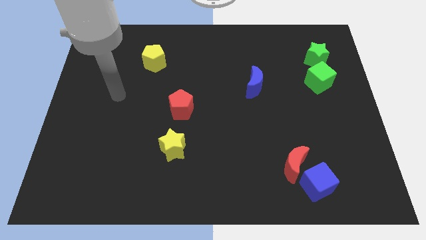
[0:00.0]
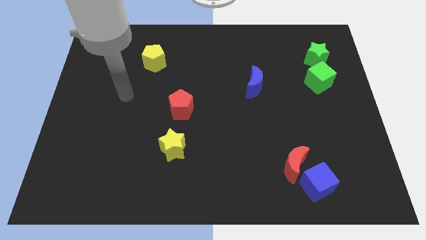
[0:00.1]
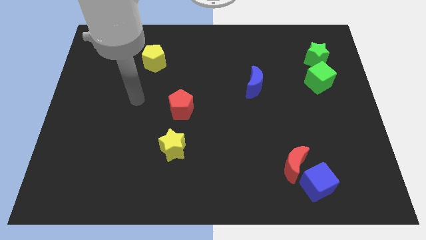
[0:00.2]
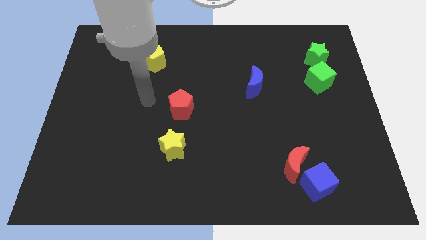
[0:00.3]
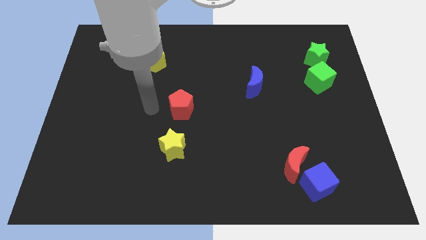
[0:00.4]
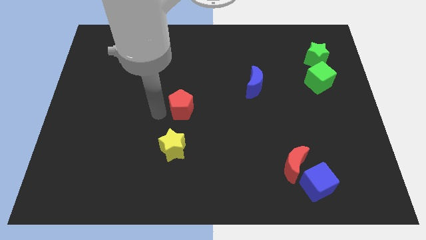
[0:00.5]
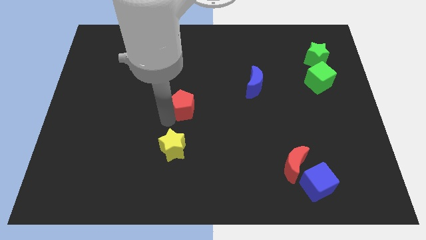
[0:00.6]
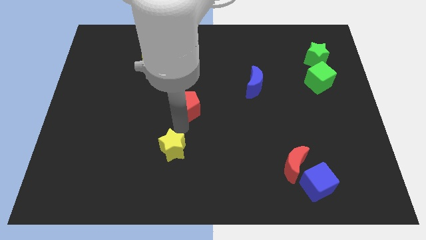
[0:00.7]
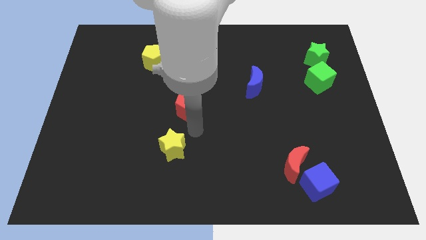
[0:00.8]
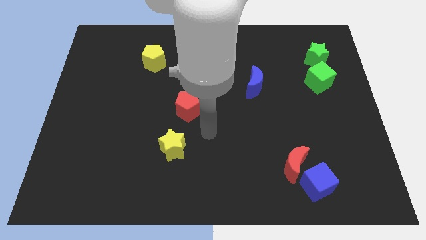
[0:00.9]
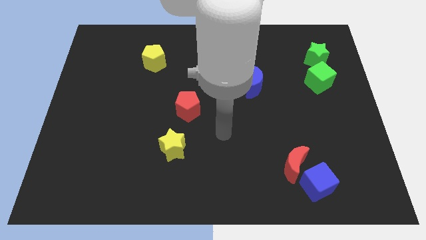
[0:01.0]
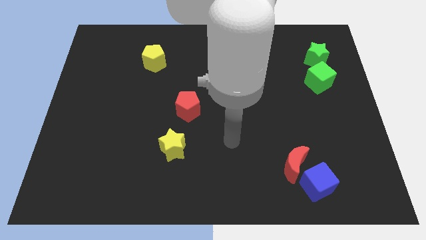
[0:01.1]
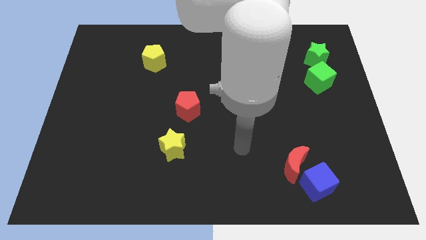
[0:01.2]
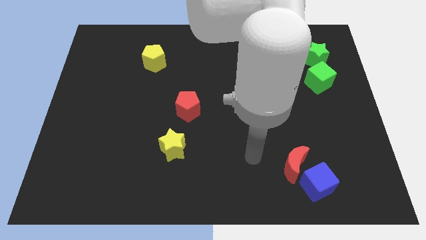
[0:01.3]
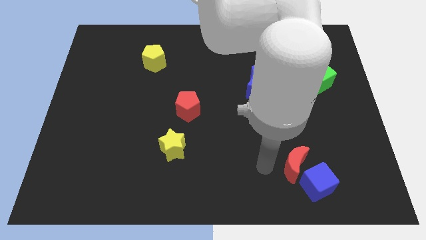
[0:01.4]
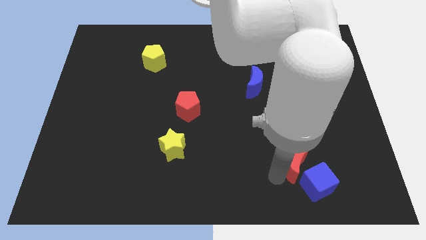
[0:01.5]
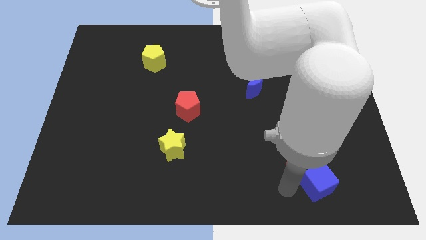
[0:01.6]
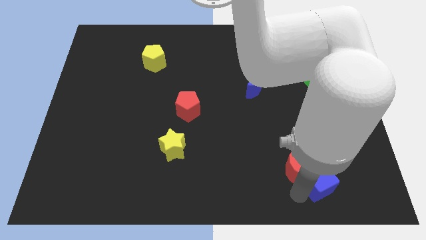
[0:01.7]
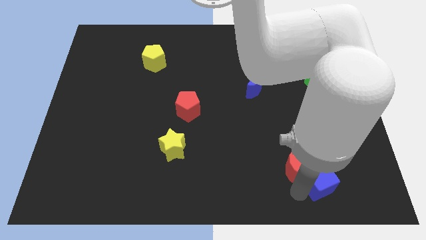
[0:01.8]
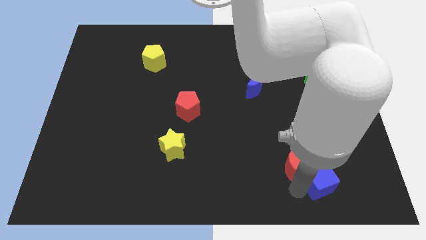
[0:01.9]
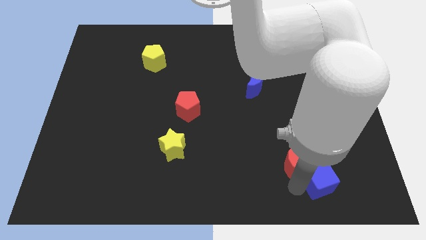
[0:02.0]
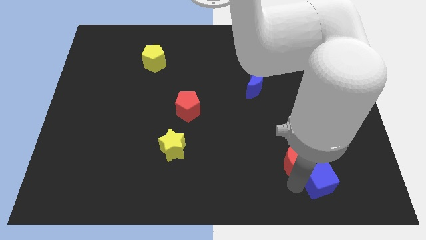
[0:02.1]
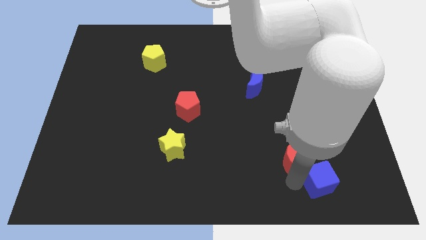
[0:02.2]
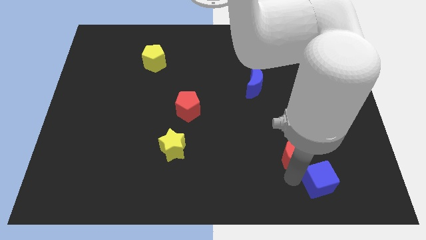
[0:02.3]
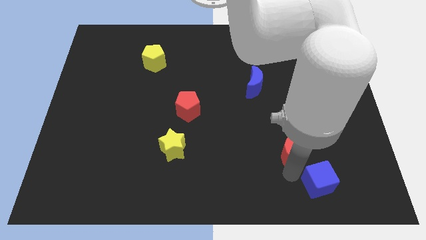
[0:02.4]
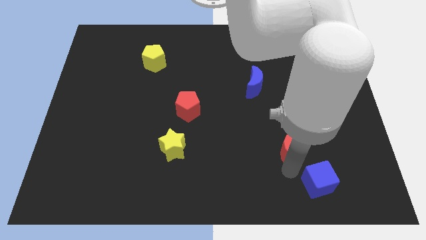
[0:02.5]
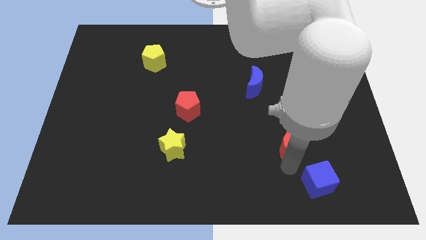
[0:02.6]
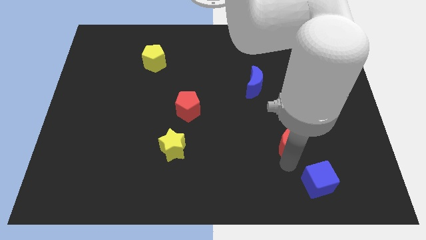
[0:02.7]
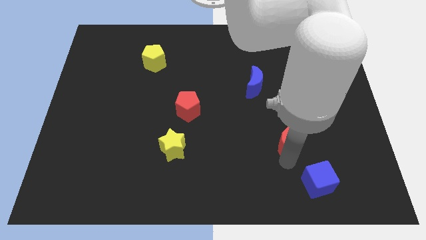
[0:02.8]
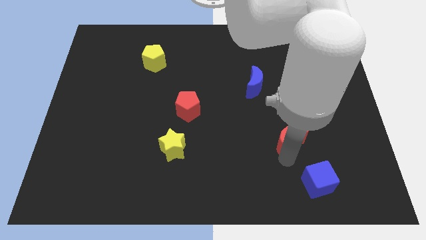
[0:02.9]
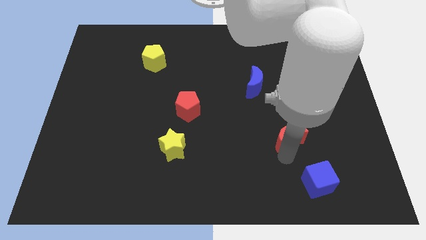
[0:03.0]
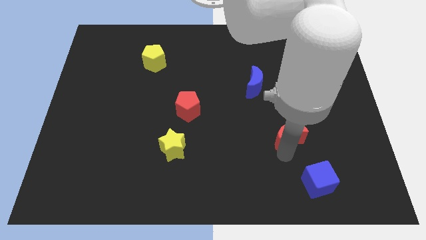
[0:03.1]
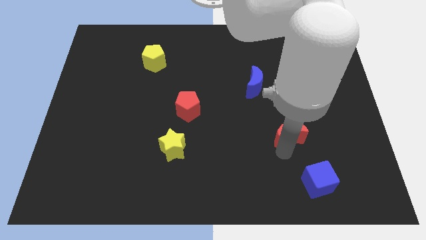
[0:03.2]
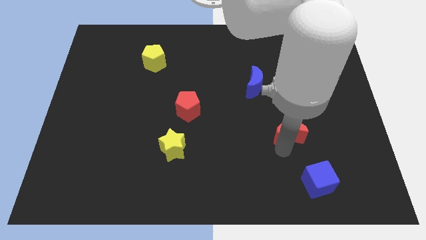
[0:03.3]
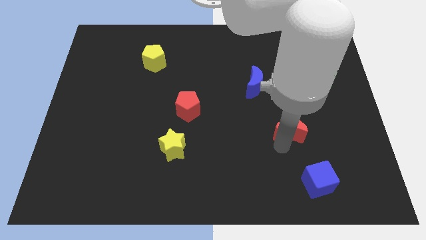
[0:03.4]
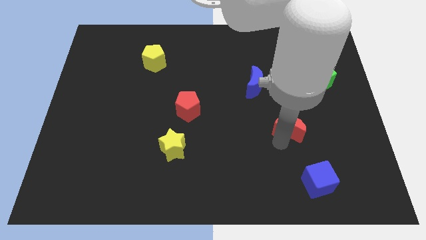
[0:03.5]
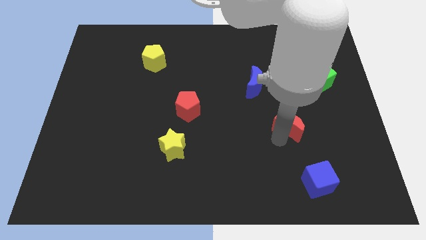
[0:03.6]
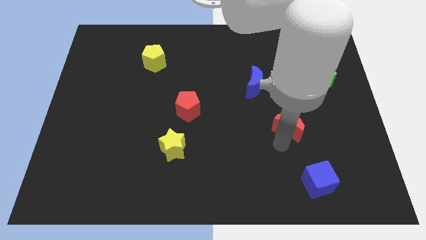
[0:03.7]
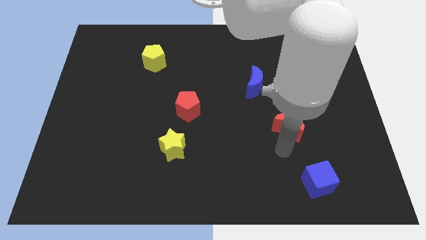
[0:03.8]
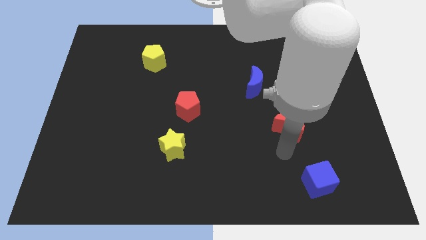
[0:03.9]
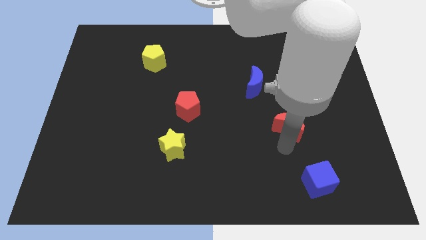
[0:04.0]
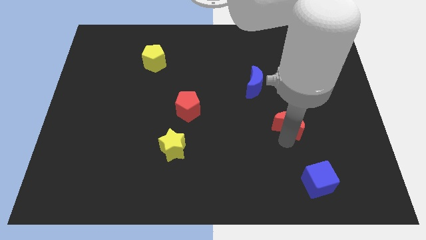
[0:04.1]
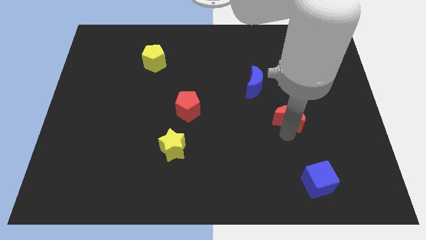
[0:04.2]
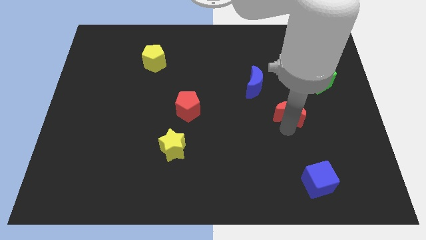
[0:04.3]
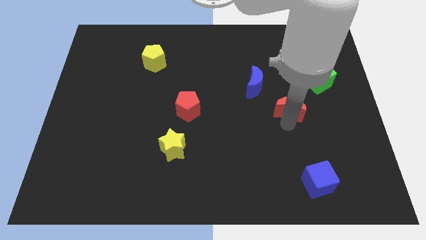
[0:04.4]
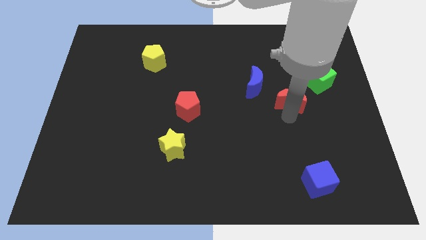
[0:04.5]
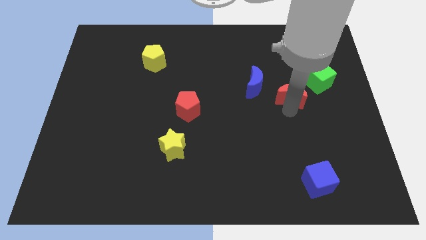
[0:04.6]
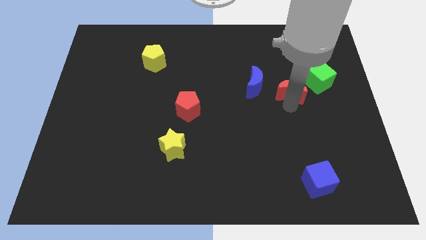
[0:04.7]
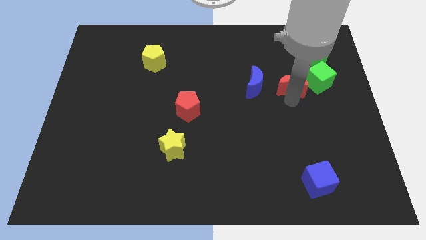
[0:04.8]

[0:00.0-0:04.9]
push the red moon up

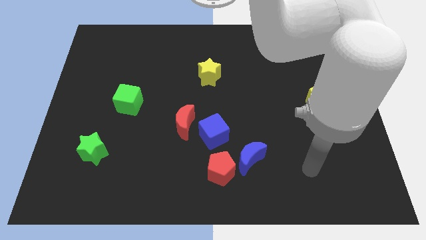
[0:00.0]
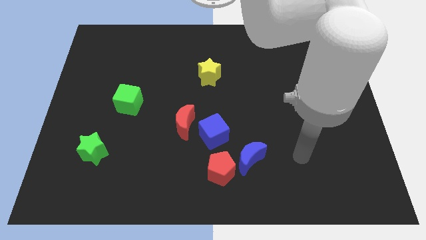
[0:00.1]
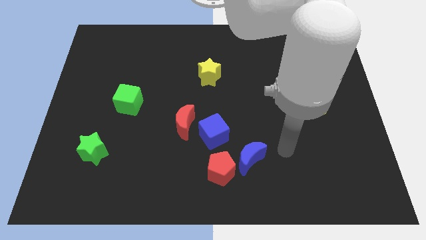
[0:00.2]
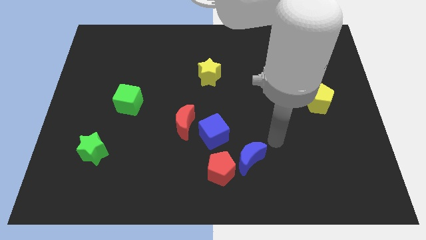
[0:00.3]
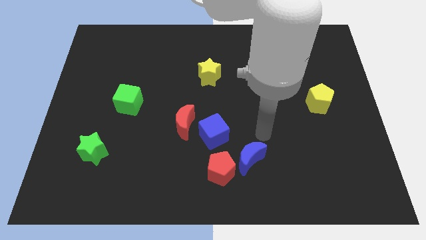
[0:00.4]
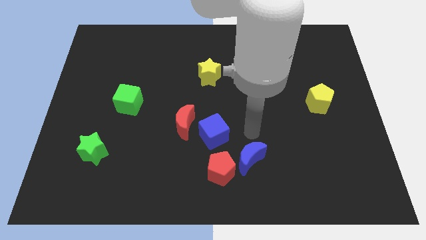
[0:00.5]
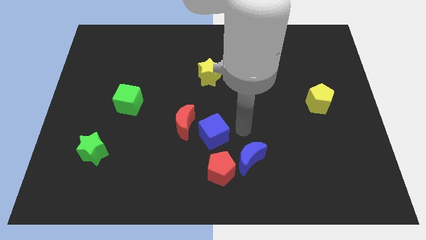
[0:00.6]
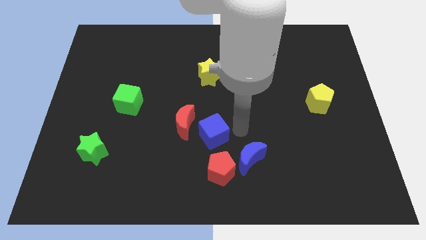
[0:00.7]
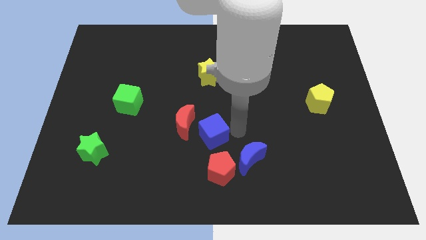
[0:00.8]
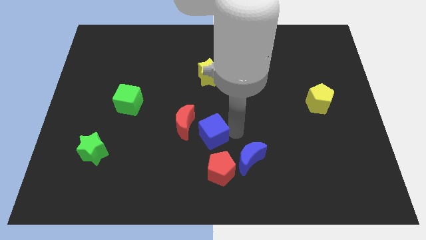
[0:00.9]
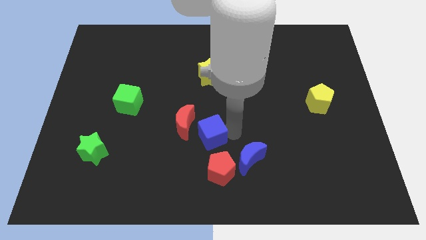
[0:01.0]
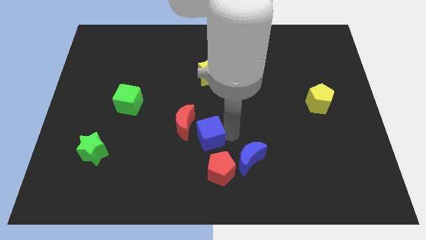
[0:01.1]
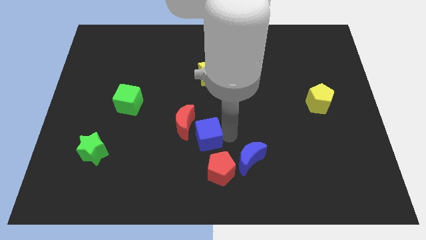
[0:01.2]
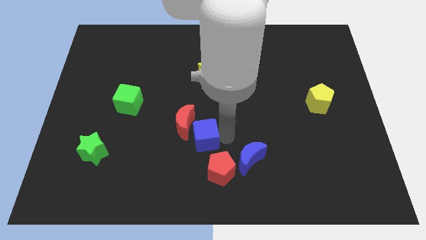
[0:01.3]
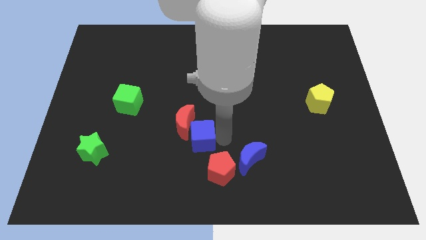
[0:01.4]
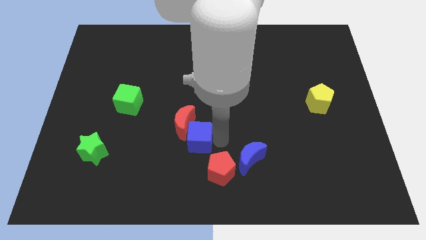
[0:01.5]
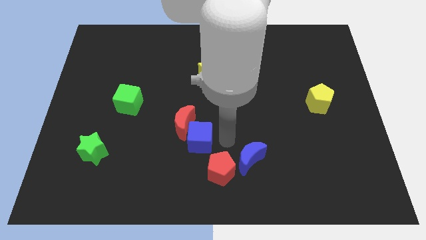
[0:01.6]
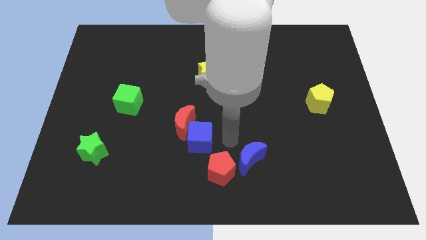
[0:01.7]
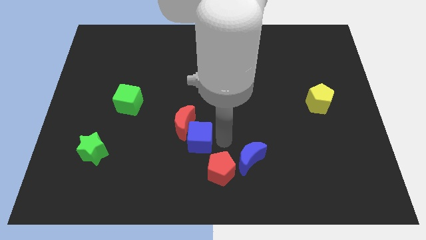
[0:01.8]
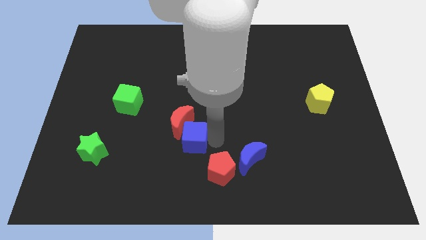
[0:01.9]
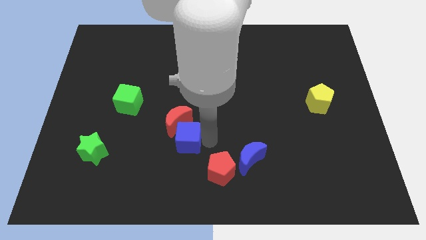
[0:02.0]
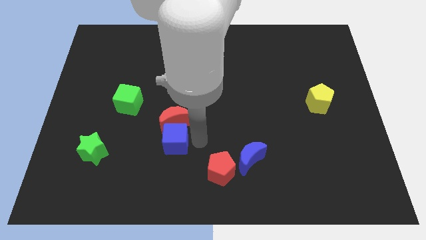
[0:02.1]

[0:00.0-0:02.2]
slightly move the blue cube left

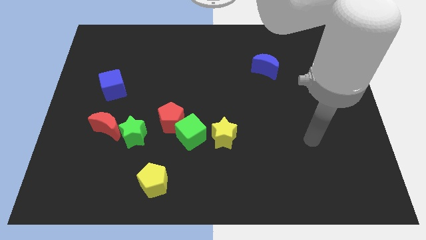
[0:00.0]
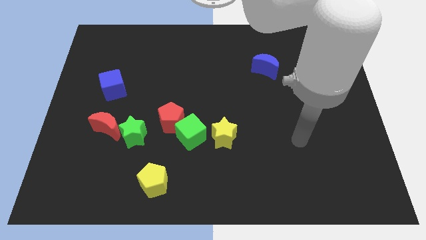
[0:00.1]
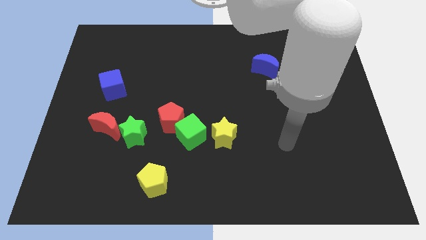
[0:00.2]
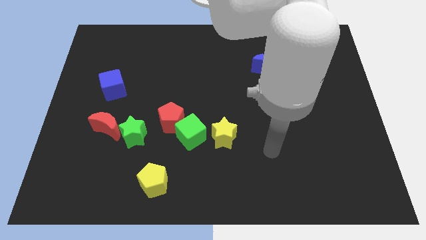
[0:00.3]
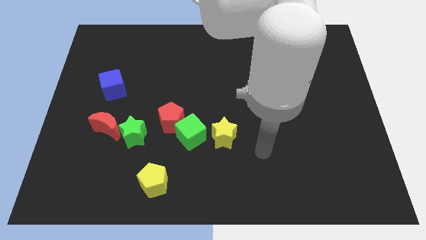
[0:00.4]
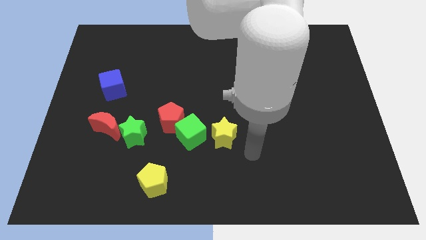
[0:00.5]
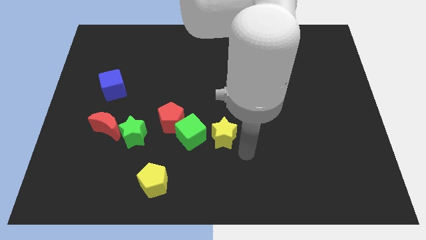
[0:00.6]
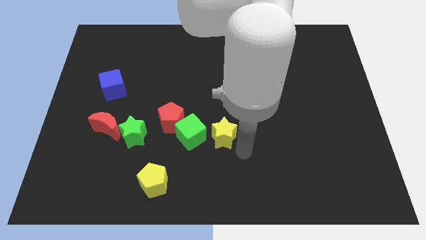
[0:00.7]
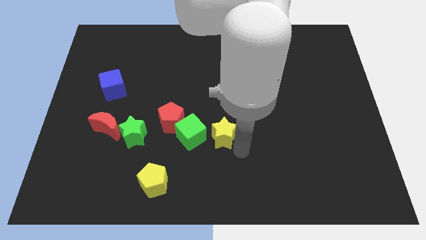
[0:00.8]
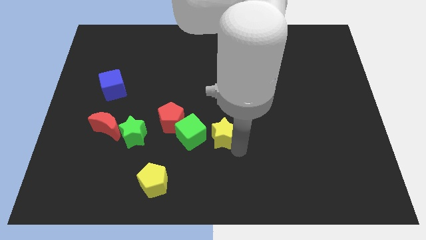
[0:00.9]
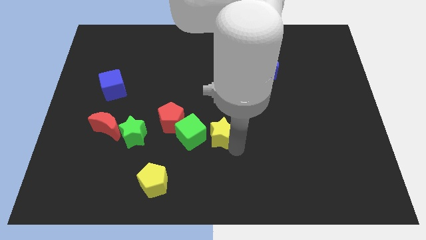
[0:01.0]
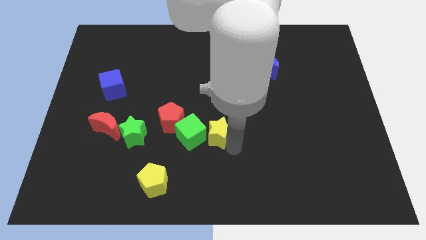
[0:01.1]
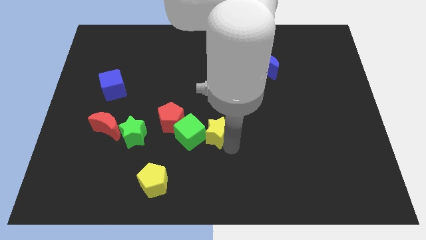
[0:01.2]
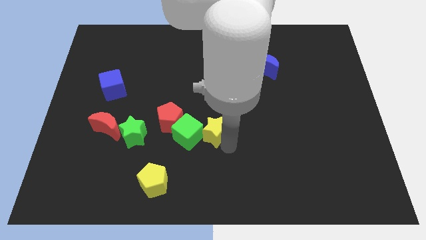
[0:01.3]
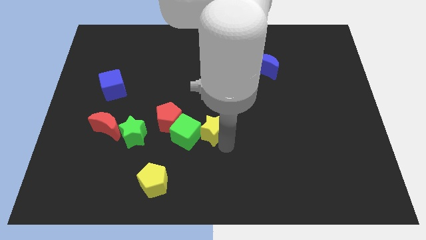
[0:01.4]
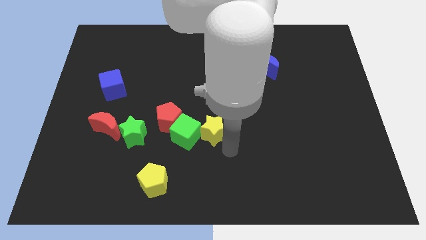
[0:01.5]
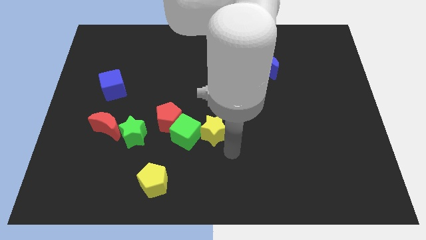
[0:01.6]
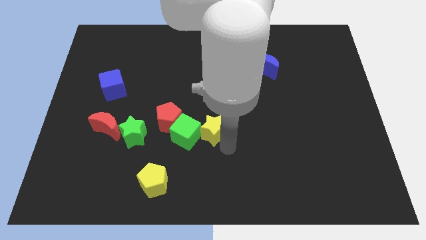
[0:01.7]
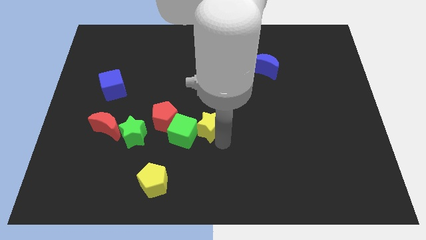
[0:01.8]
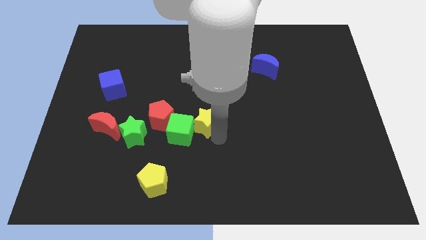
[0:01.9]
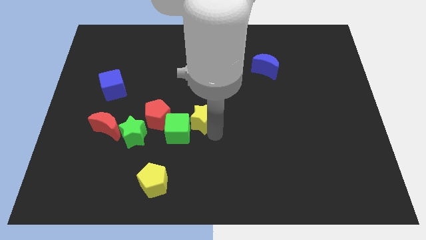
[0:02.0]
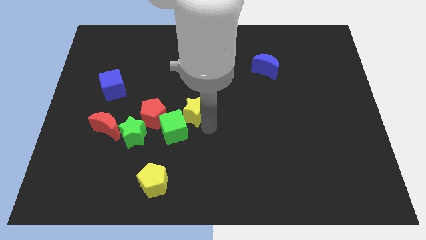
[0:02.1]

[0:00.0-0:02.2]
push the yellow star slightly up and to the left diagonally
